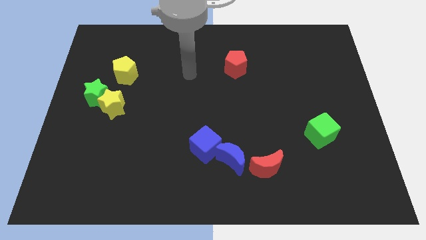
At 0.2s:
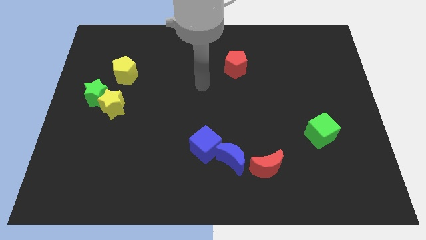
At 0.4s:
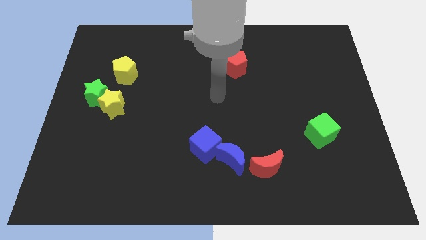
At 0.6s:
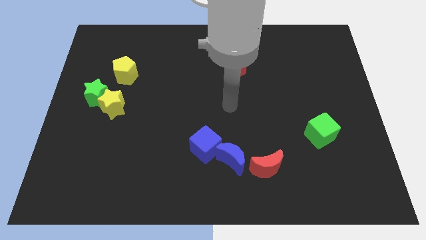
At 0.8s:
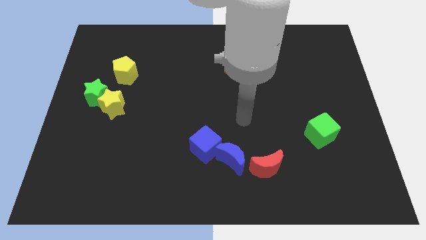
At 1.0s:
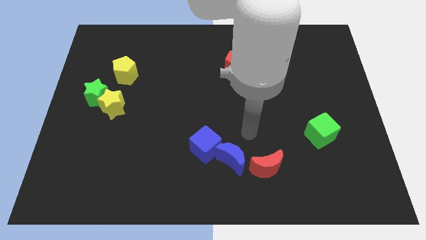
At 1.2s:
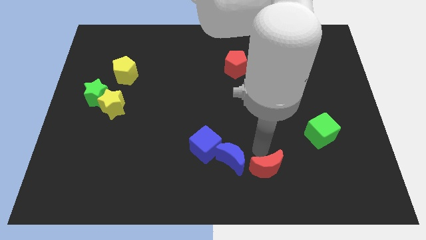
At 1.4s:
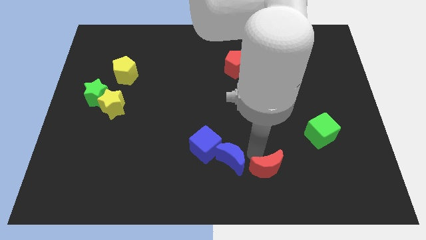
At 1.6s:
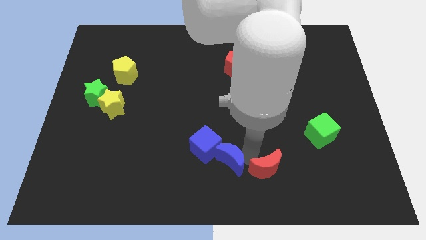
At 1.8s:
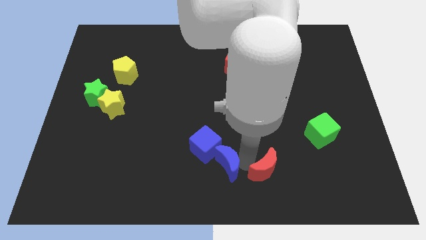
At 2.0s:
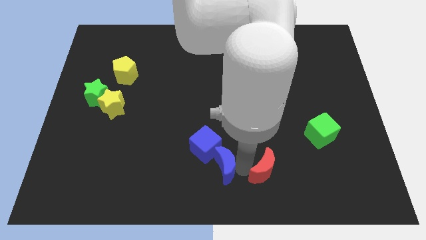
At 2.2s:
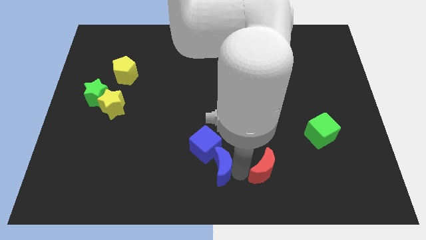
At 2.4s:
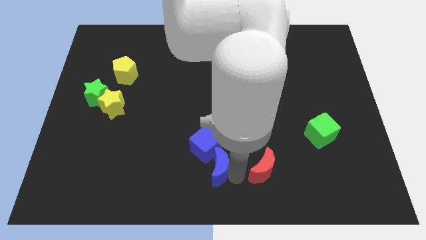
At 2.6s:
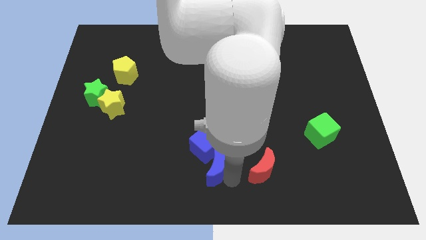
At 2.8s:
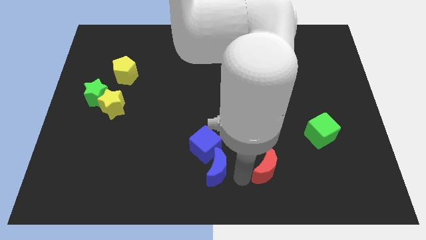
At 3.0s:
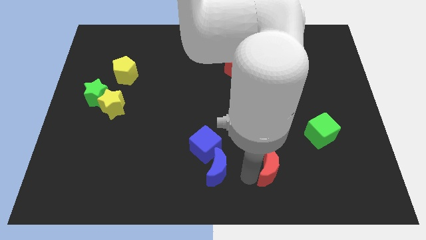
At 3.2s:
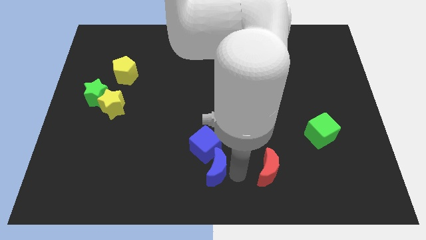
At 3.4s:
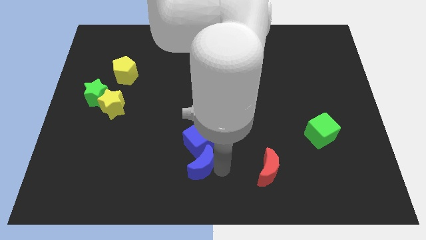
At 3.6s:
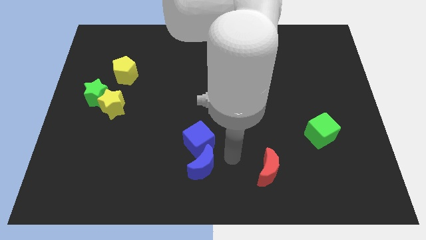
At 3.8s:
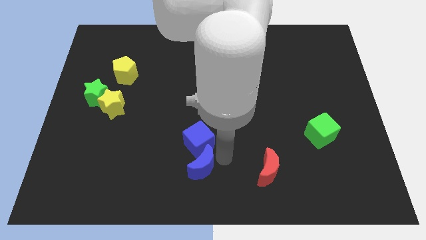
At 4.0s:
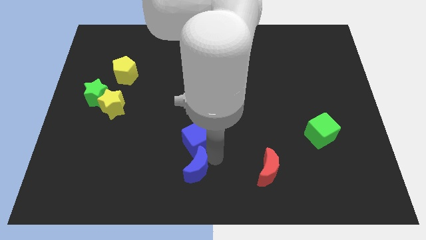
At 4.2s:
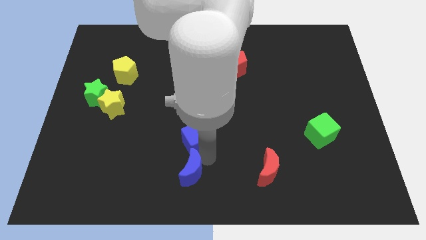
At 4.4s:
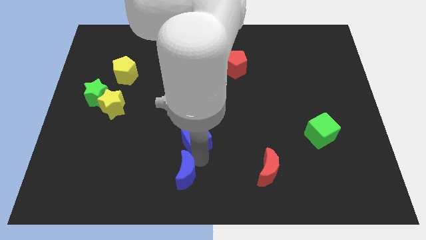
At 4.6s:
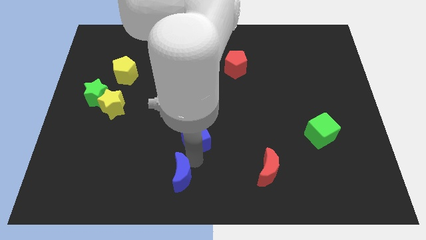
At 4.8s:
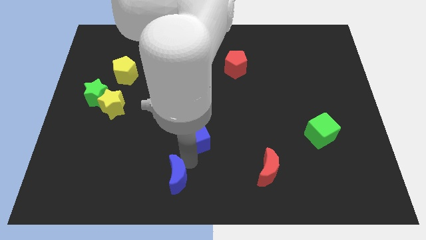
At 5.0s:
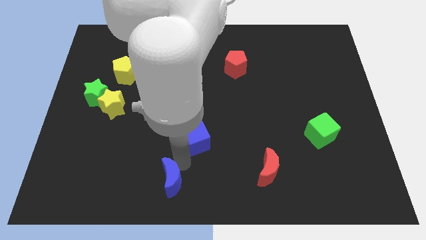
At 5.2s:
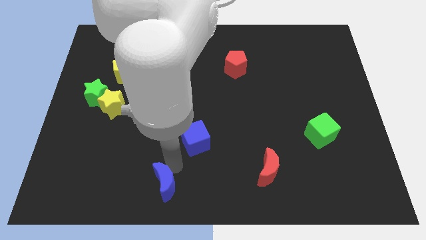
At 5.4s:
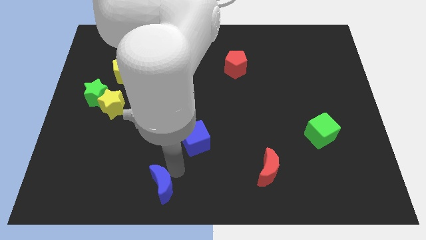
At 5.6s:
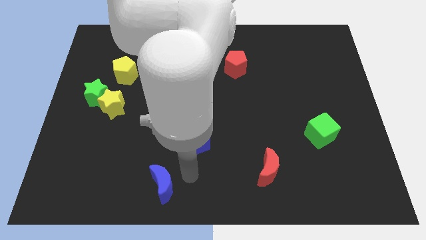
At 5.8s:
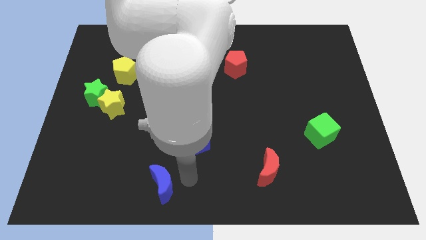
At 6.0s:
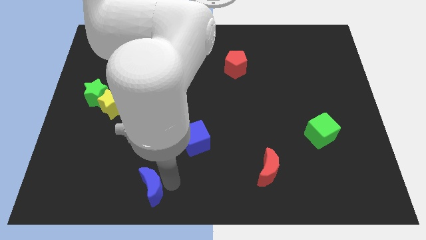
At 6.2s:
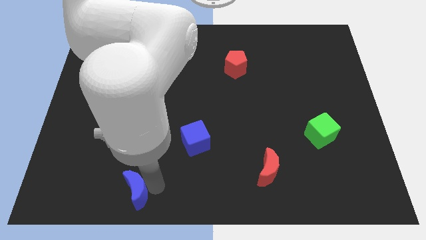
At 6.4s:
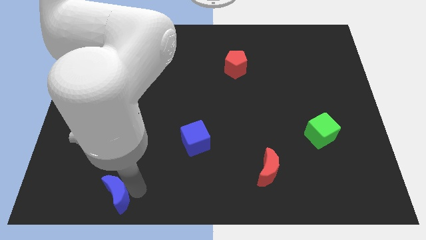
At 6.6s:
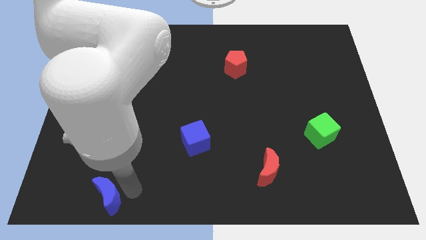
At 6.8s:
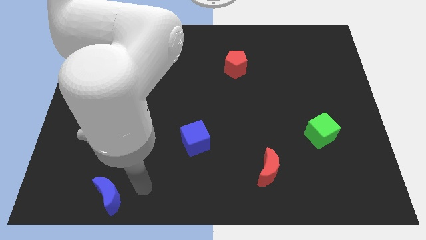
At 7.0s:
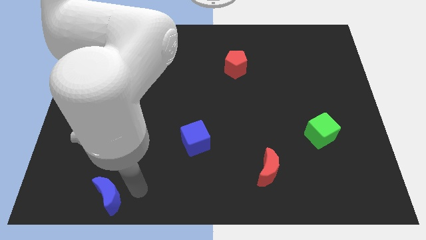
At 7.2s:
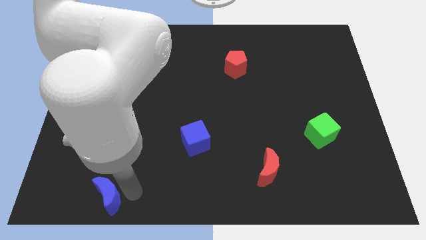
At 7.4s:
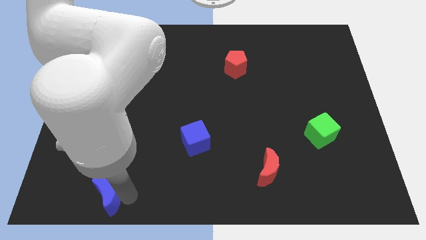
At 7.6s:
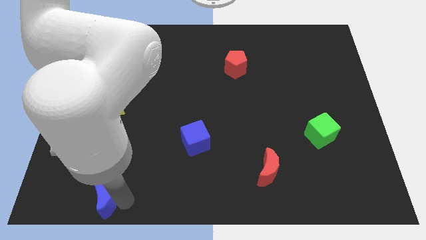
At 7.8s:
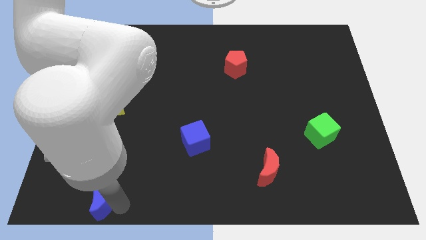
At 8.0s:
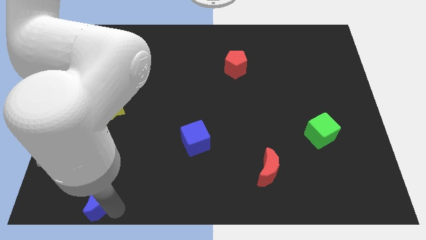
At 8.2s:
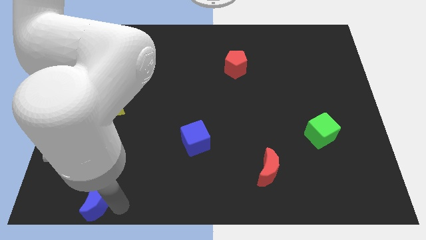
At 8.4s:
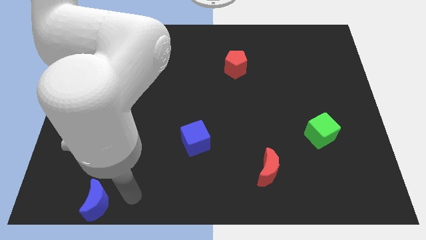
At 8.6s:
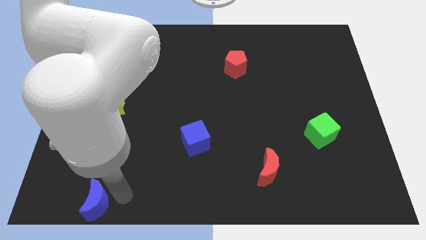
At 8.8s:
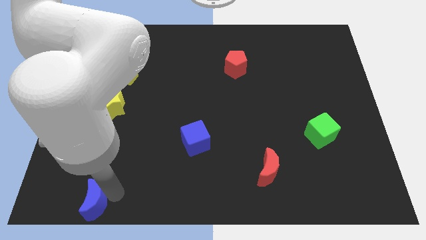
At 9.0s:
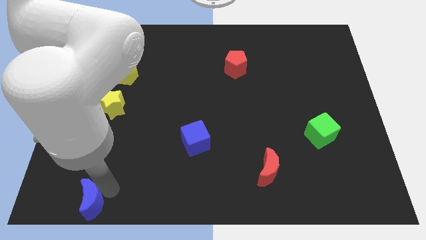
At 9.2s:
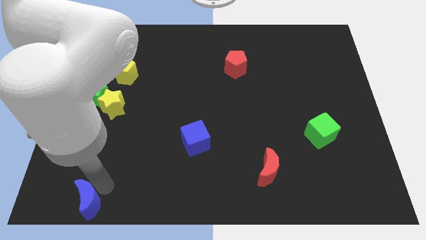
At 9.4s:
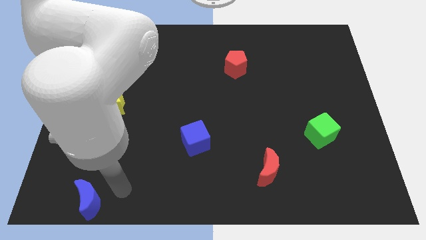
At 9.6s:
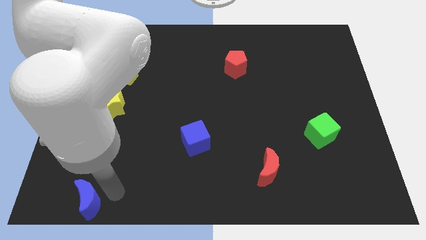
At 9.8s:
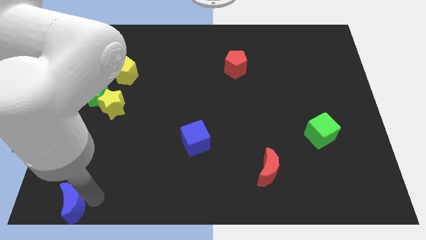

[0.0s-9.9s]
move the blue moon to the bottom left of the board

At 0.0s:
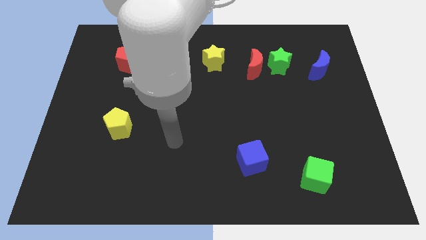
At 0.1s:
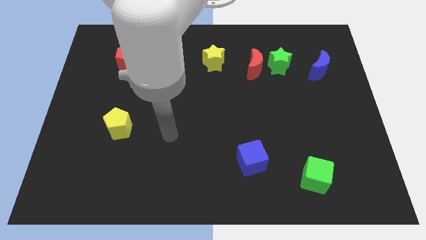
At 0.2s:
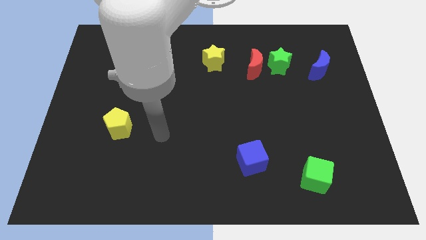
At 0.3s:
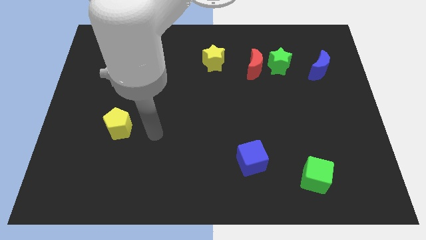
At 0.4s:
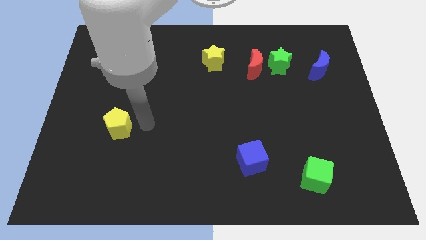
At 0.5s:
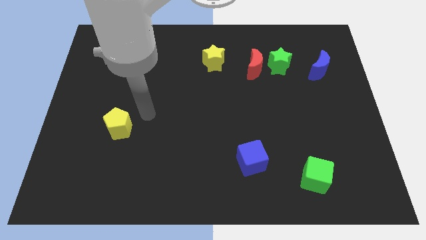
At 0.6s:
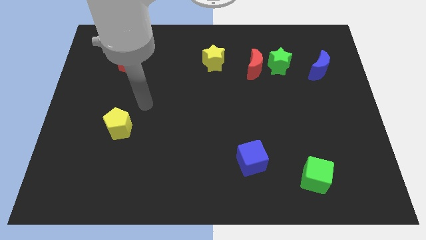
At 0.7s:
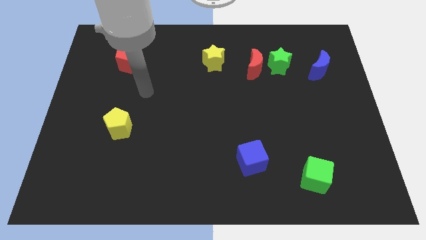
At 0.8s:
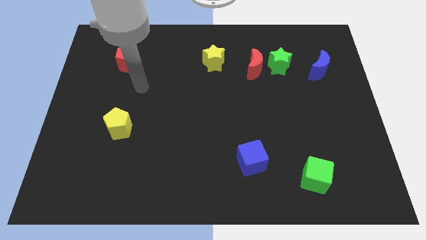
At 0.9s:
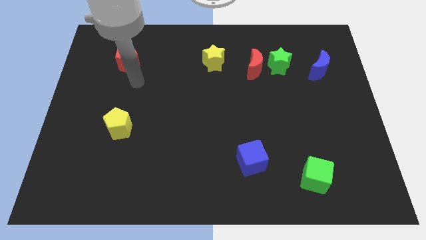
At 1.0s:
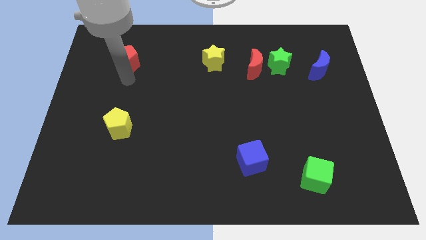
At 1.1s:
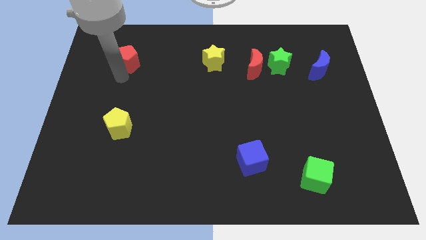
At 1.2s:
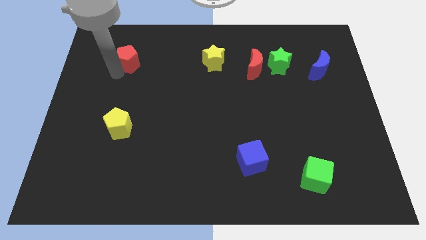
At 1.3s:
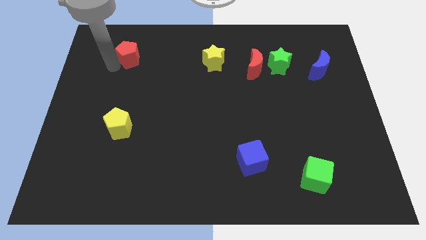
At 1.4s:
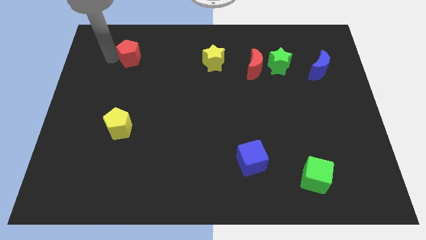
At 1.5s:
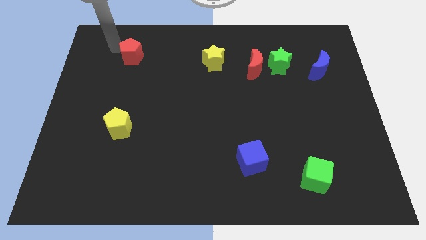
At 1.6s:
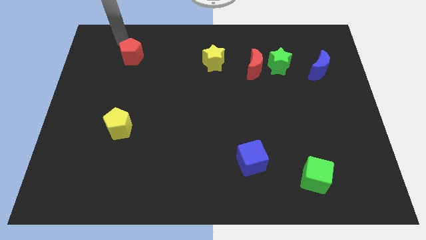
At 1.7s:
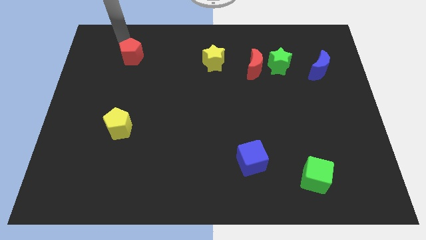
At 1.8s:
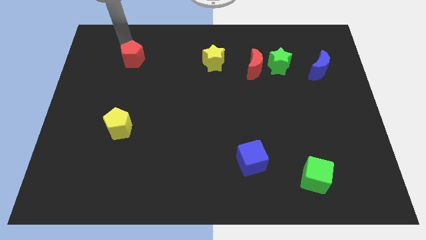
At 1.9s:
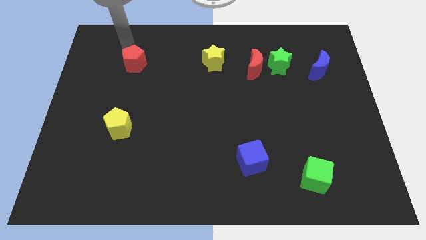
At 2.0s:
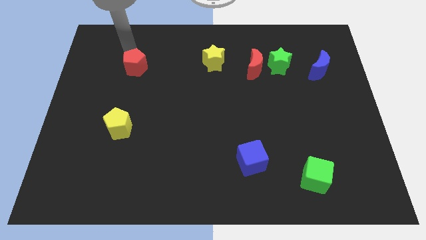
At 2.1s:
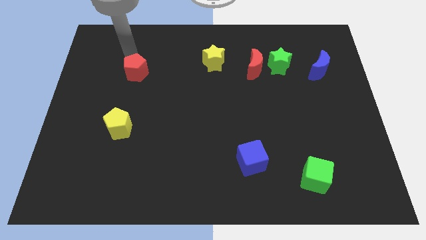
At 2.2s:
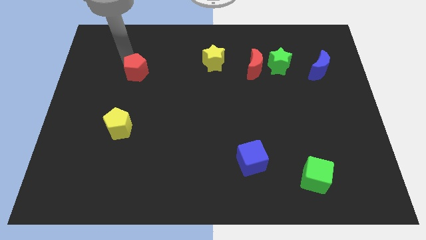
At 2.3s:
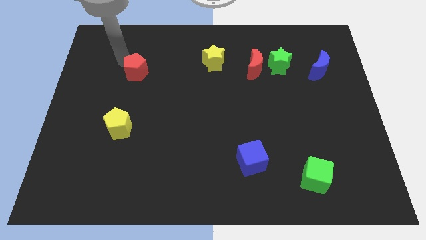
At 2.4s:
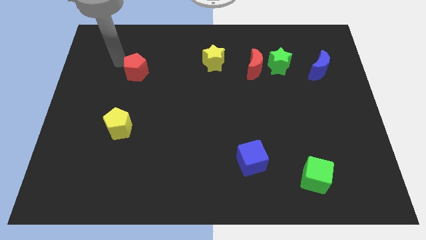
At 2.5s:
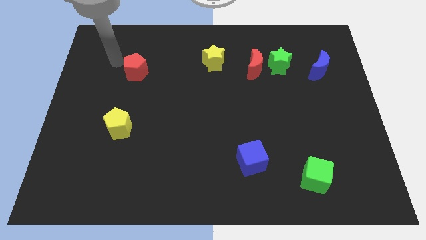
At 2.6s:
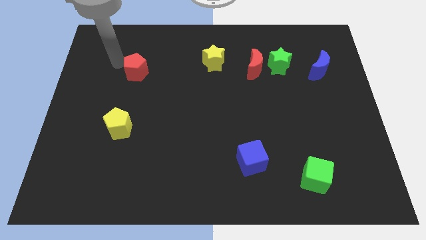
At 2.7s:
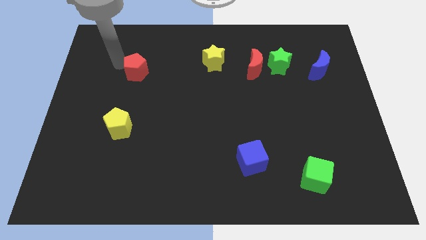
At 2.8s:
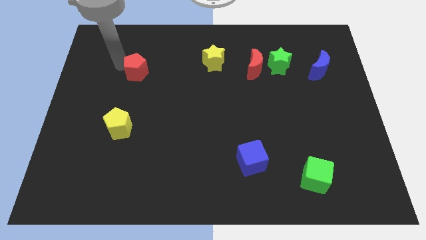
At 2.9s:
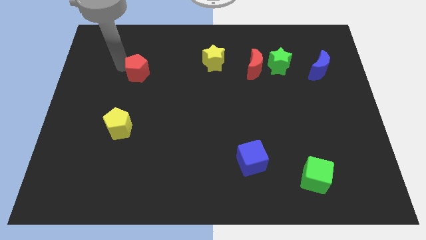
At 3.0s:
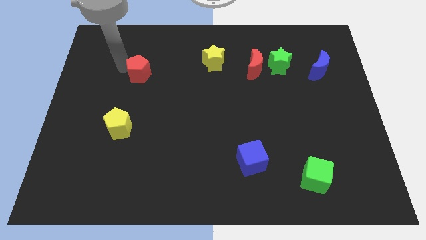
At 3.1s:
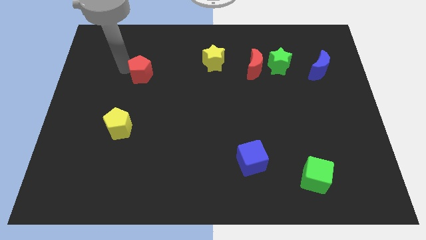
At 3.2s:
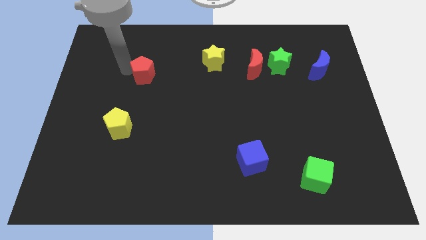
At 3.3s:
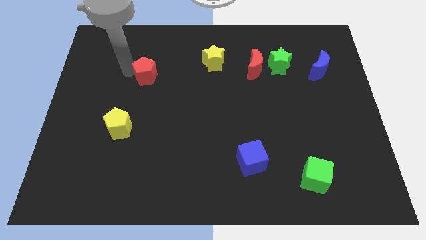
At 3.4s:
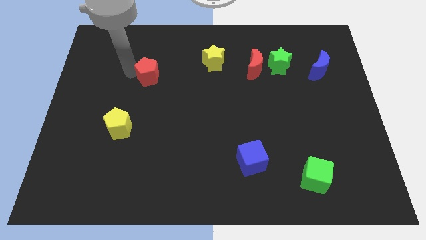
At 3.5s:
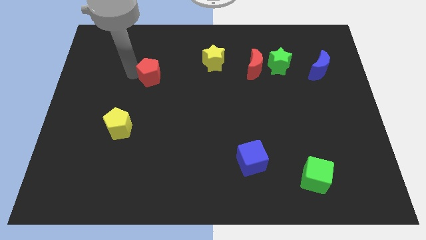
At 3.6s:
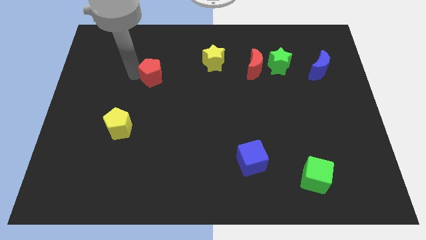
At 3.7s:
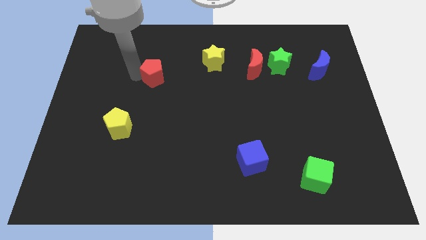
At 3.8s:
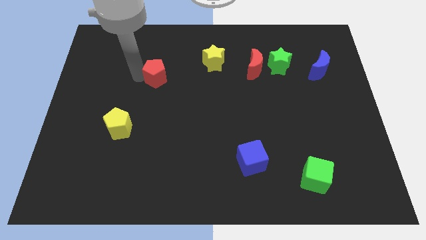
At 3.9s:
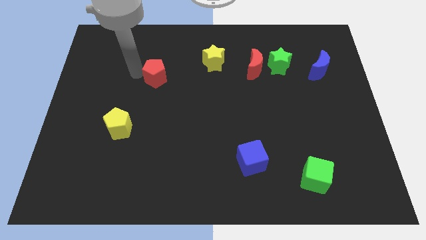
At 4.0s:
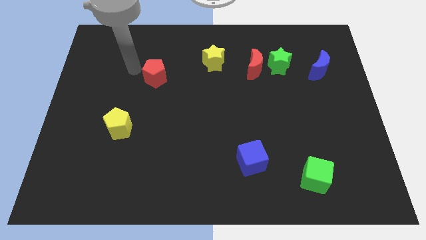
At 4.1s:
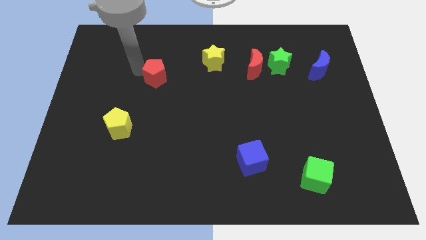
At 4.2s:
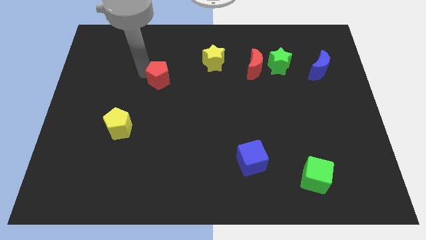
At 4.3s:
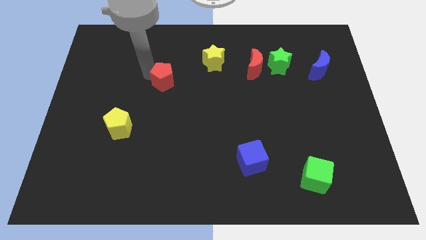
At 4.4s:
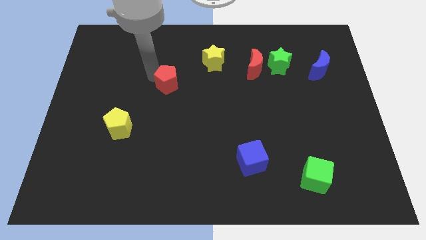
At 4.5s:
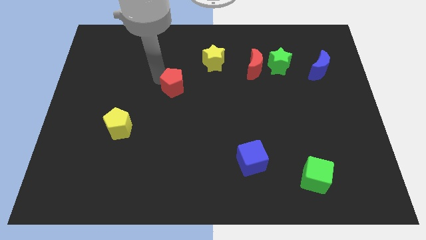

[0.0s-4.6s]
slide the red pentagon to the center
